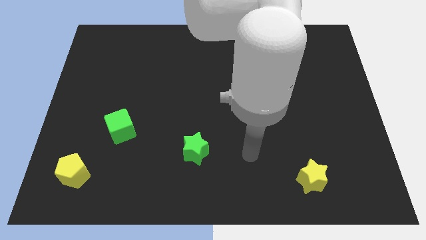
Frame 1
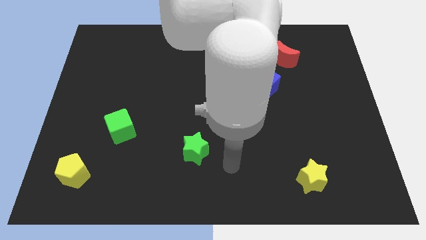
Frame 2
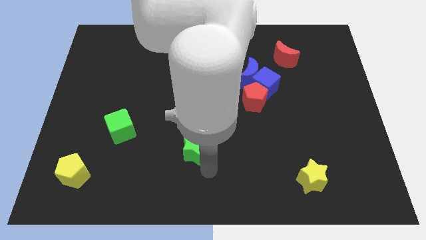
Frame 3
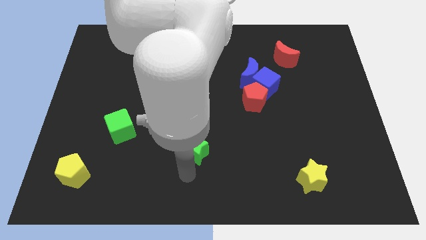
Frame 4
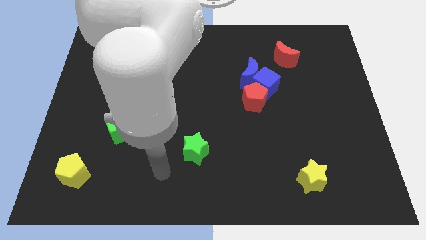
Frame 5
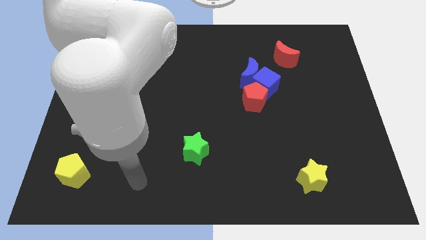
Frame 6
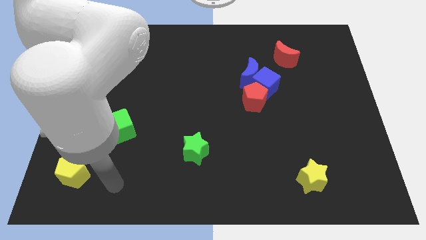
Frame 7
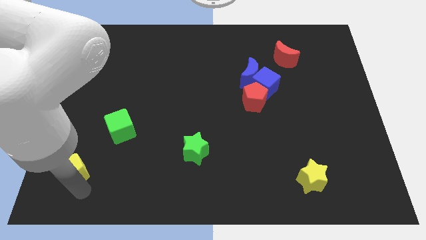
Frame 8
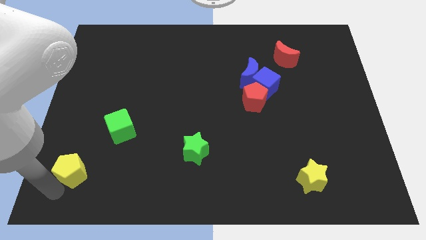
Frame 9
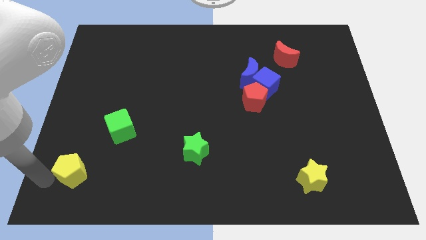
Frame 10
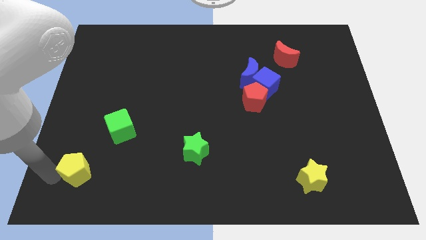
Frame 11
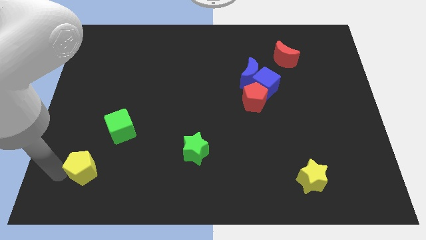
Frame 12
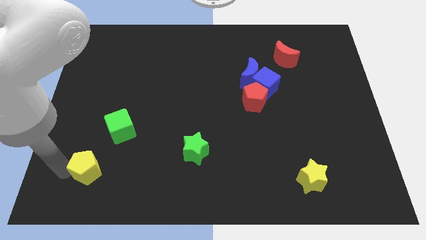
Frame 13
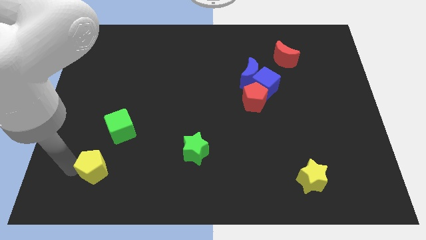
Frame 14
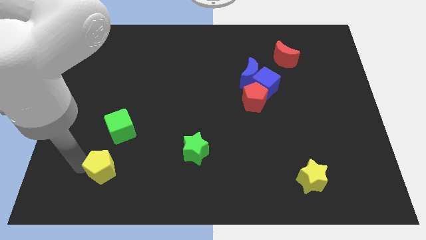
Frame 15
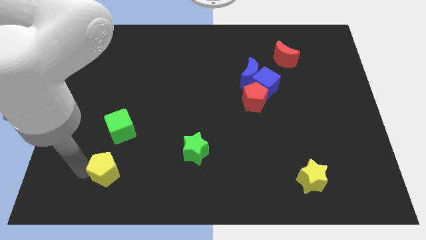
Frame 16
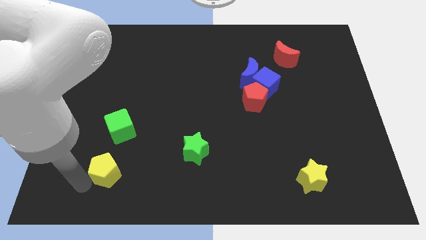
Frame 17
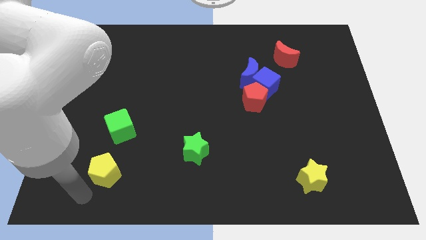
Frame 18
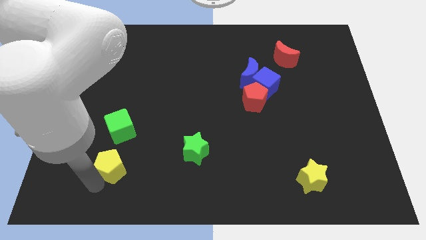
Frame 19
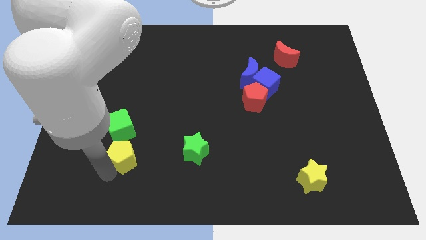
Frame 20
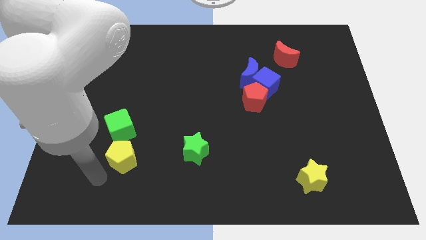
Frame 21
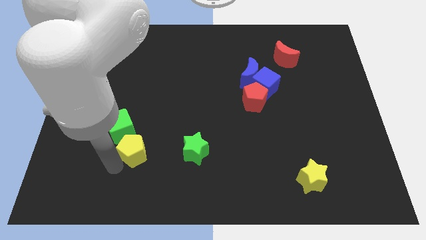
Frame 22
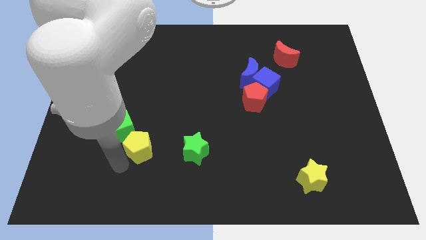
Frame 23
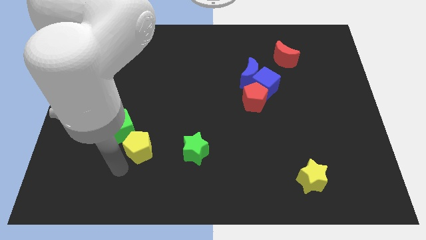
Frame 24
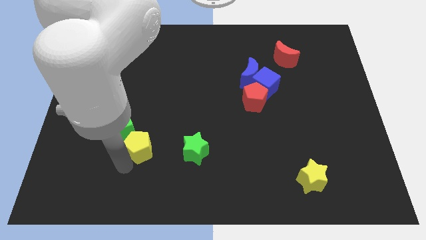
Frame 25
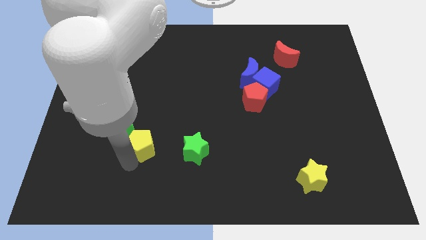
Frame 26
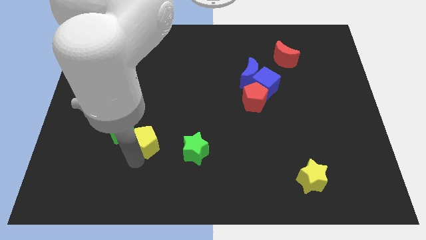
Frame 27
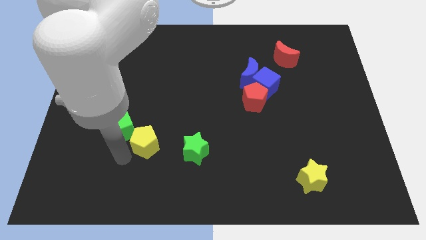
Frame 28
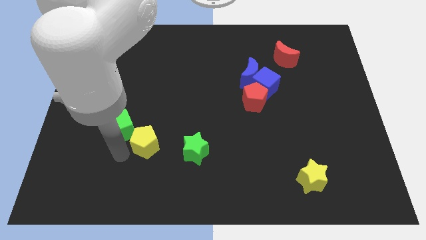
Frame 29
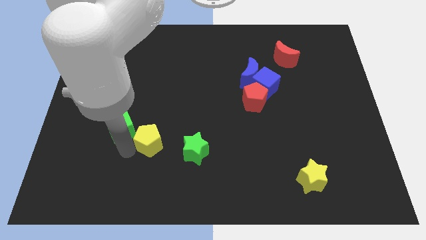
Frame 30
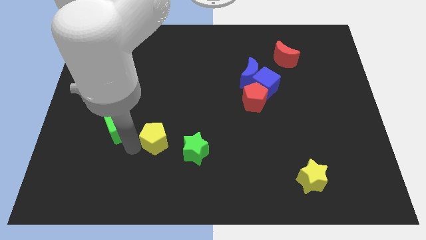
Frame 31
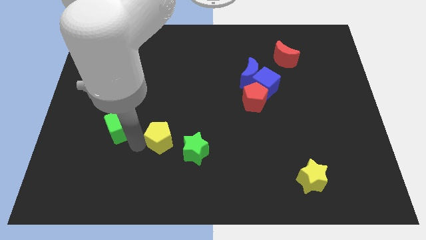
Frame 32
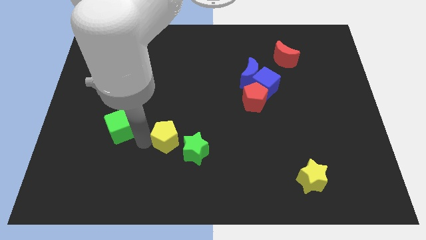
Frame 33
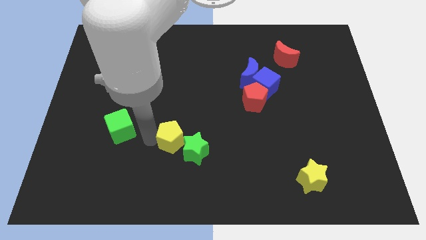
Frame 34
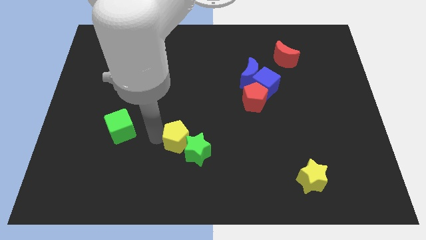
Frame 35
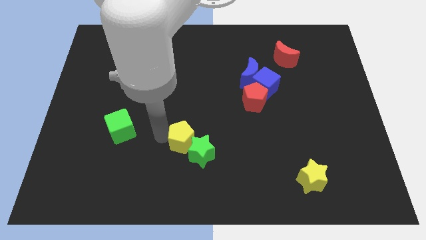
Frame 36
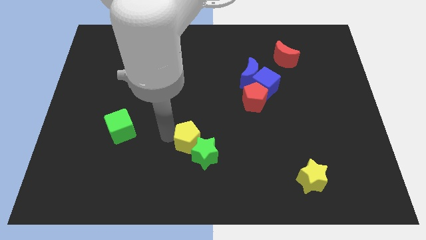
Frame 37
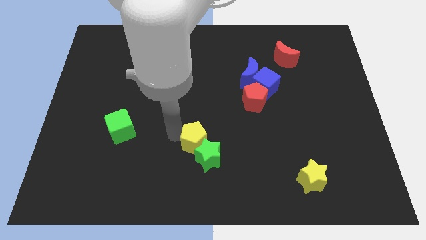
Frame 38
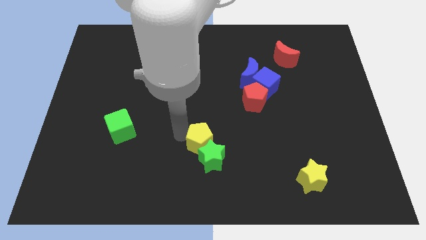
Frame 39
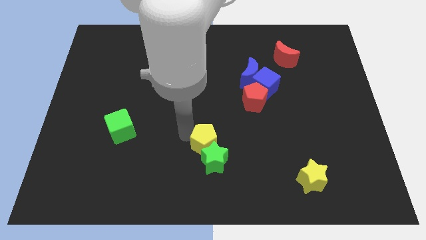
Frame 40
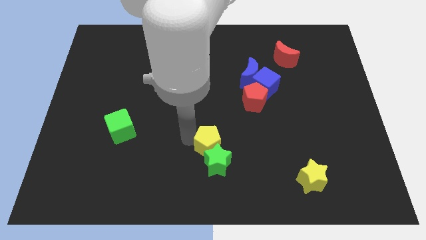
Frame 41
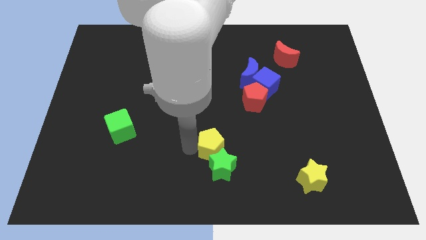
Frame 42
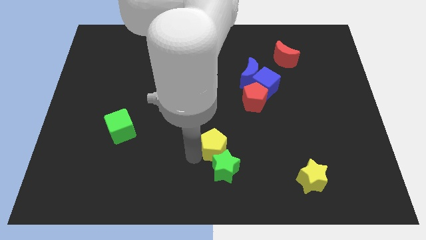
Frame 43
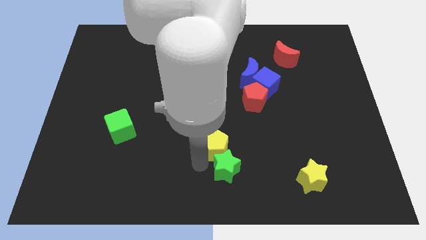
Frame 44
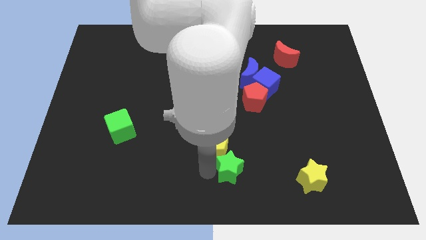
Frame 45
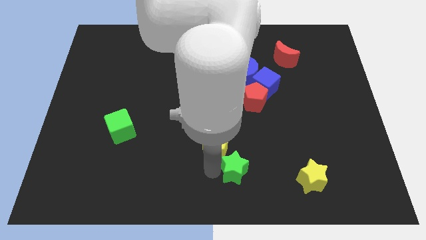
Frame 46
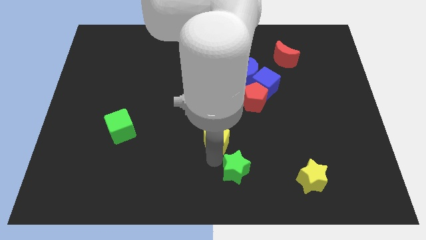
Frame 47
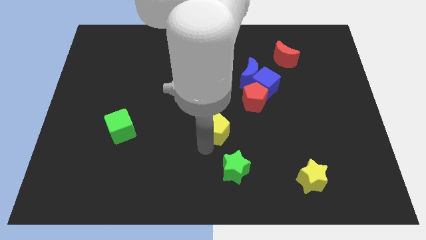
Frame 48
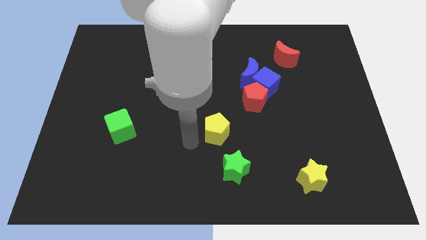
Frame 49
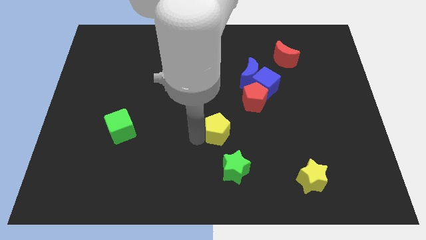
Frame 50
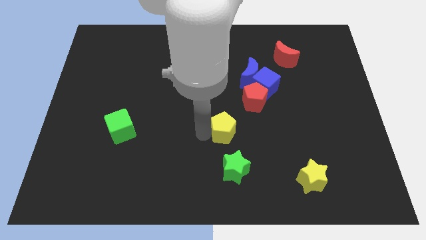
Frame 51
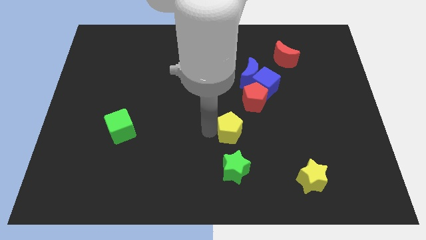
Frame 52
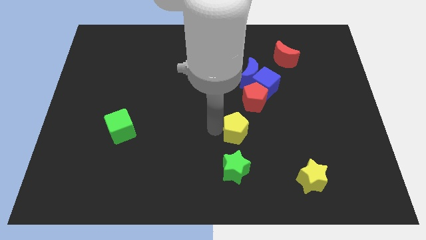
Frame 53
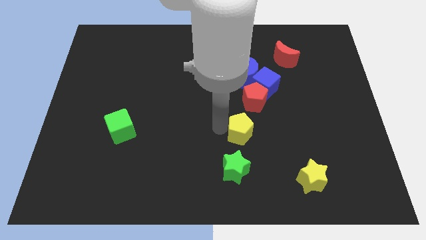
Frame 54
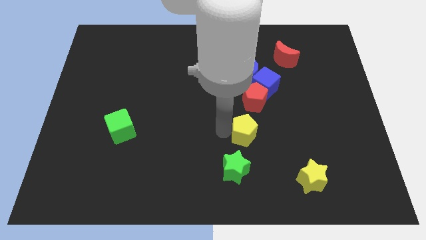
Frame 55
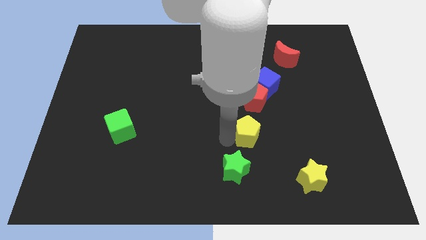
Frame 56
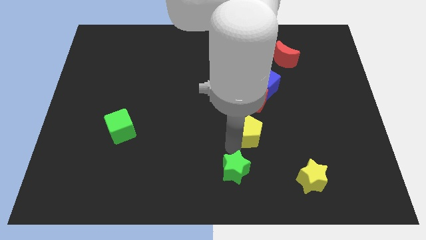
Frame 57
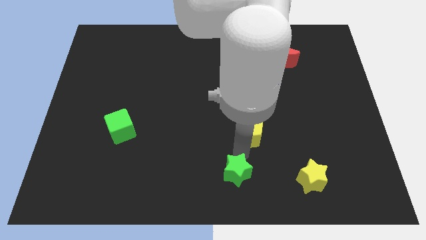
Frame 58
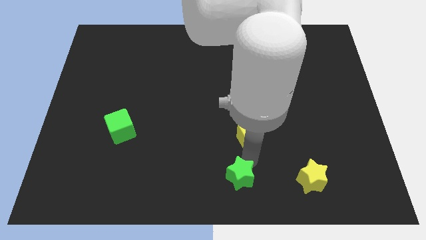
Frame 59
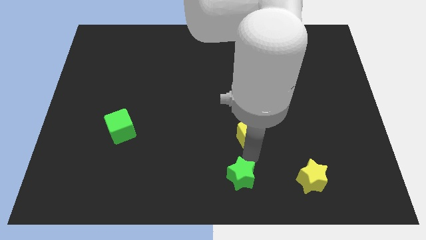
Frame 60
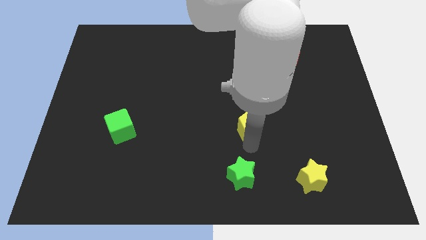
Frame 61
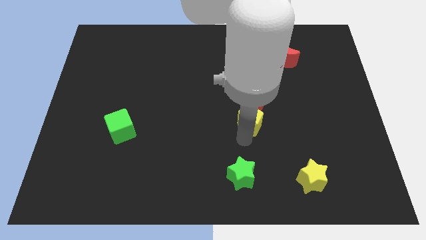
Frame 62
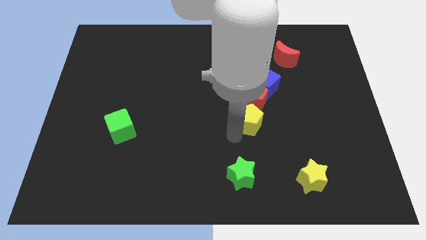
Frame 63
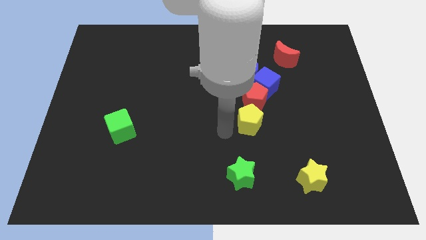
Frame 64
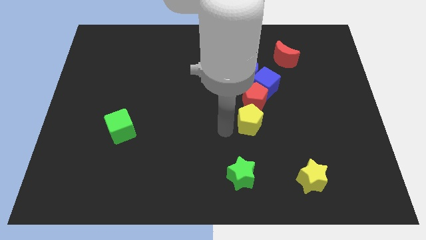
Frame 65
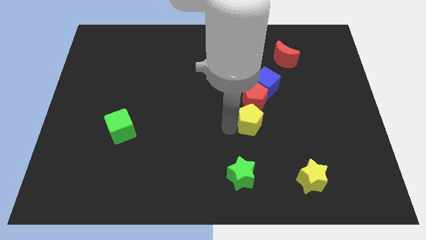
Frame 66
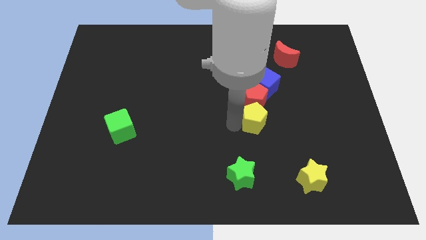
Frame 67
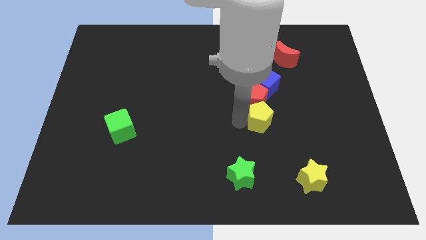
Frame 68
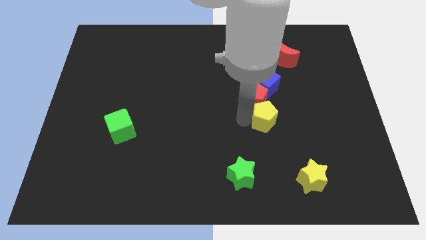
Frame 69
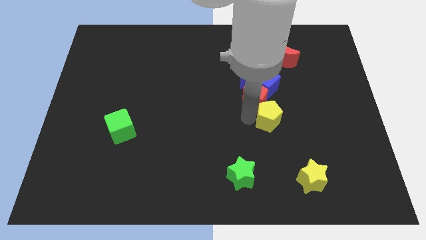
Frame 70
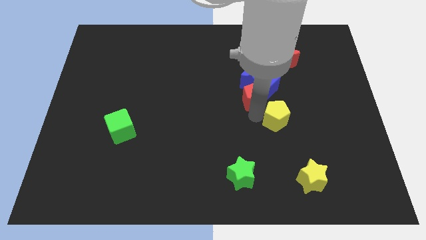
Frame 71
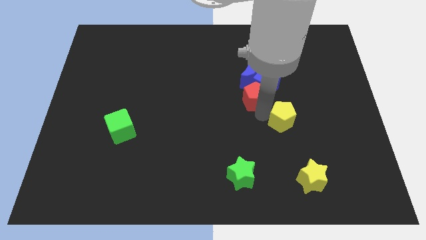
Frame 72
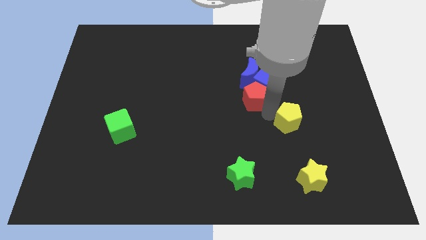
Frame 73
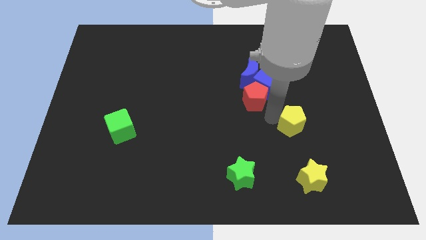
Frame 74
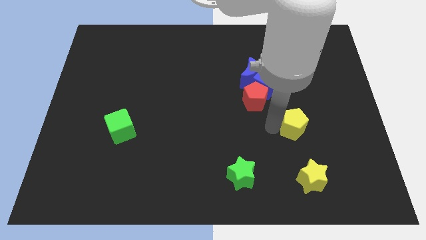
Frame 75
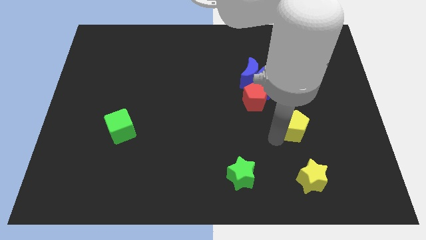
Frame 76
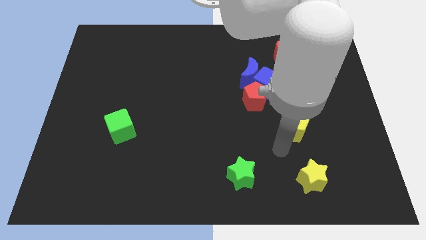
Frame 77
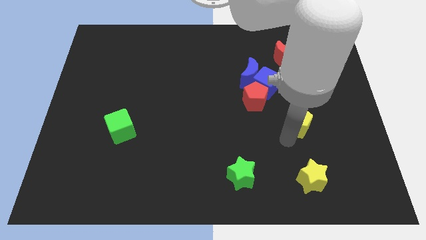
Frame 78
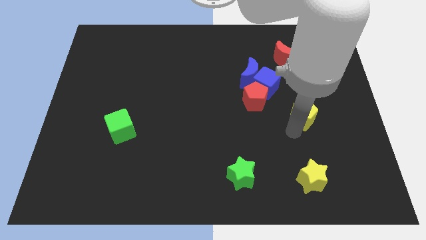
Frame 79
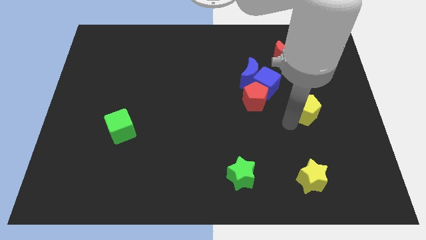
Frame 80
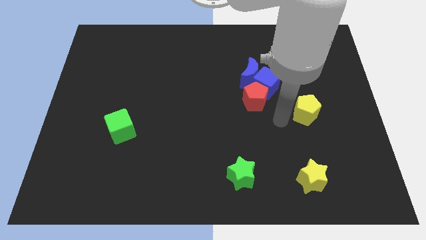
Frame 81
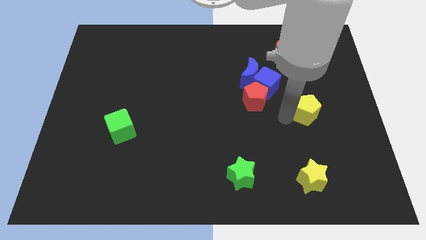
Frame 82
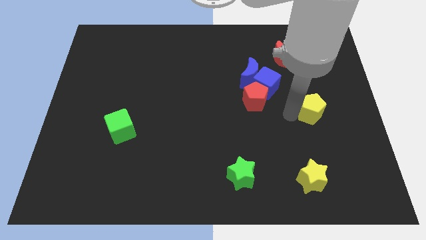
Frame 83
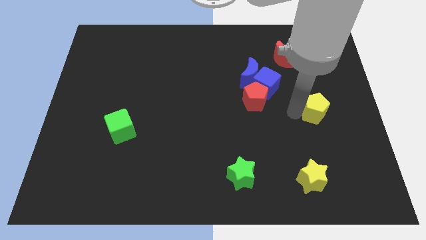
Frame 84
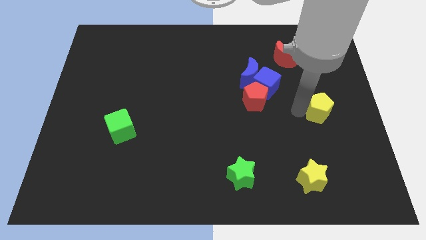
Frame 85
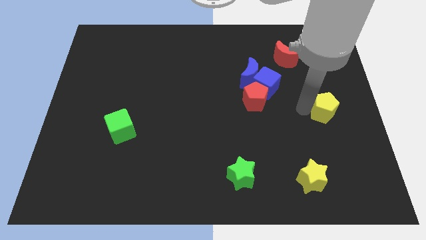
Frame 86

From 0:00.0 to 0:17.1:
push the yellow pentagon to the right side
